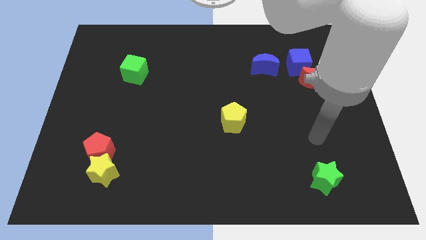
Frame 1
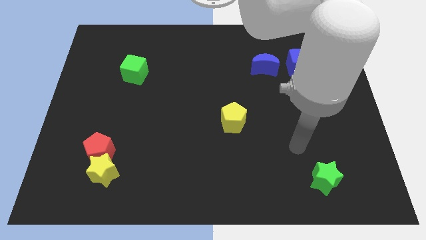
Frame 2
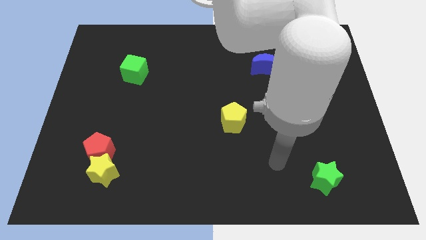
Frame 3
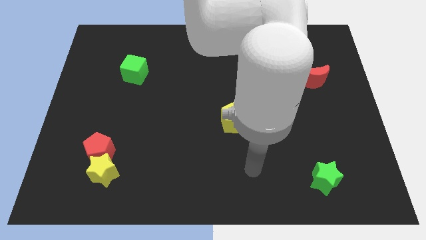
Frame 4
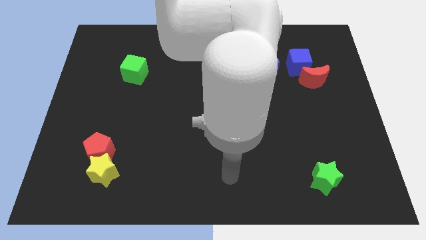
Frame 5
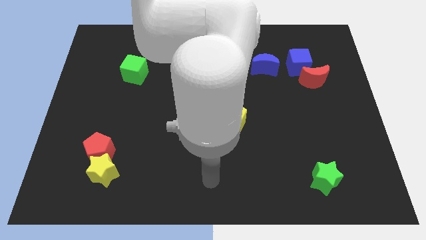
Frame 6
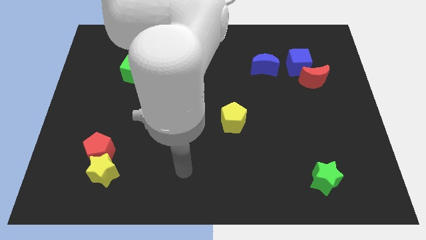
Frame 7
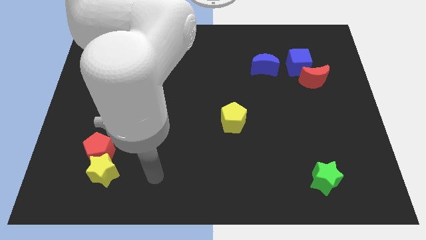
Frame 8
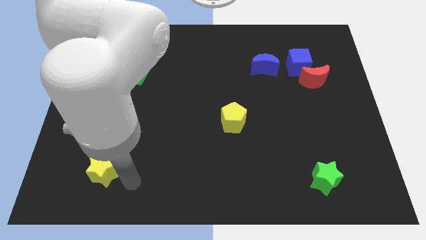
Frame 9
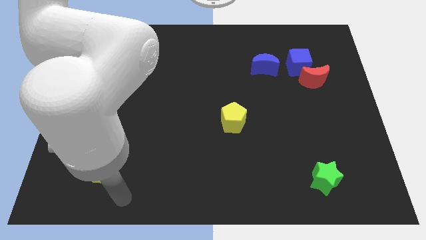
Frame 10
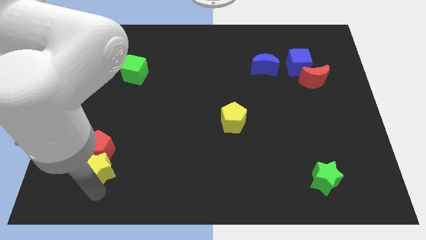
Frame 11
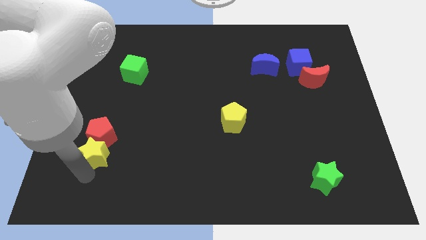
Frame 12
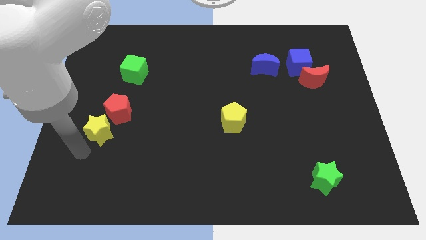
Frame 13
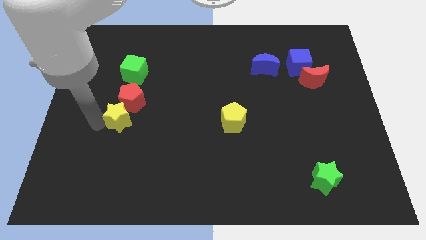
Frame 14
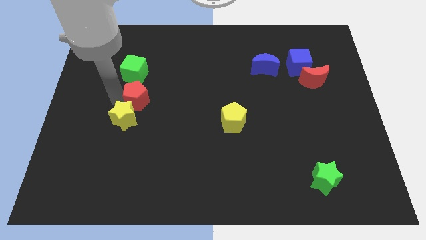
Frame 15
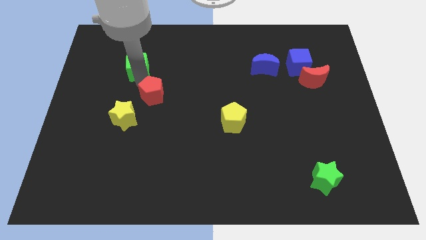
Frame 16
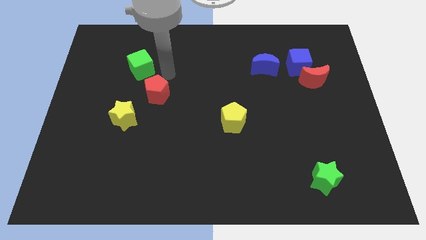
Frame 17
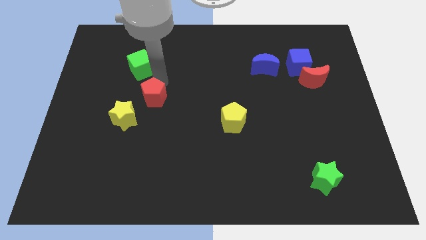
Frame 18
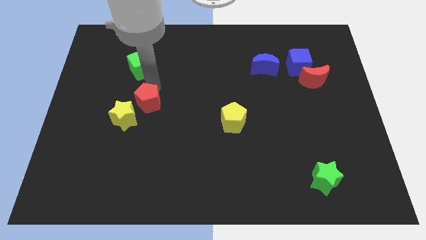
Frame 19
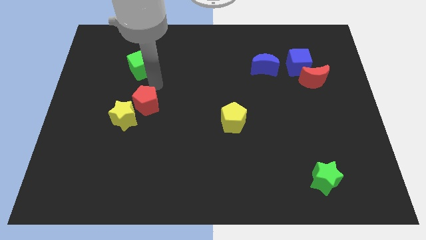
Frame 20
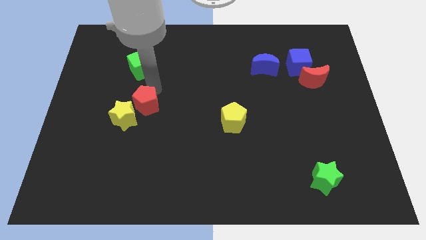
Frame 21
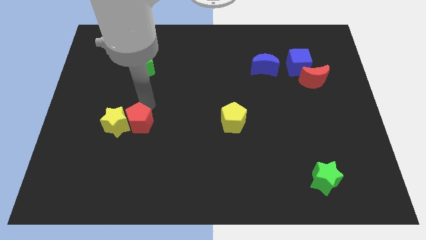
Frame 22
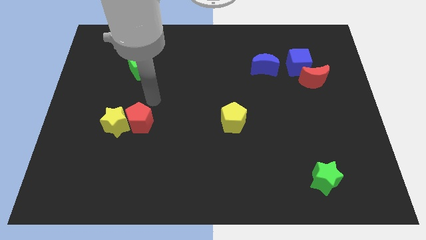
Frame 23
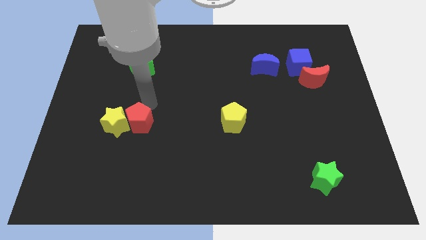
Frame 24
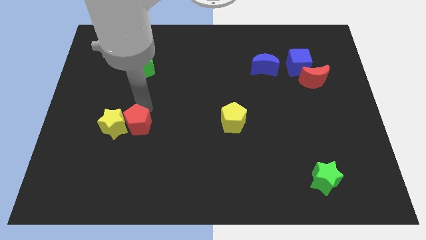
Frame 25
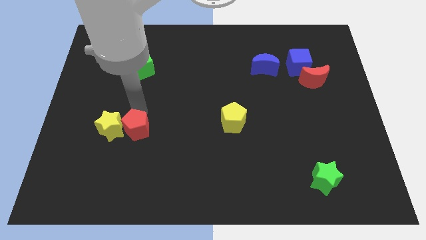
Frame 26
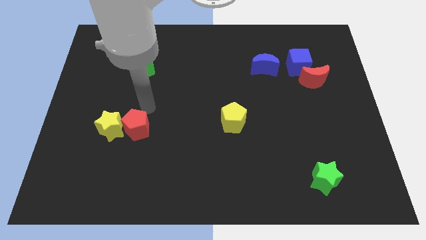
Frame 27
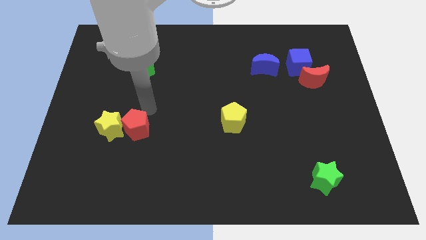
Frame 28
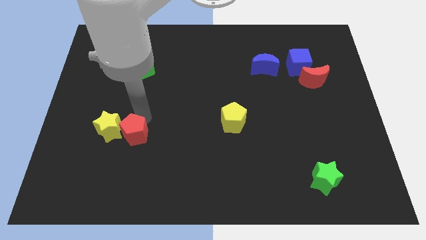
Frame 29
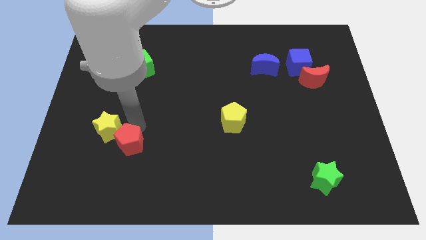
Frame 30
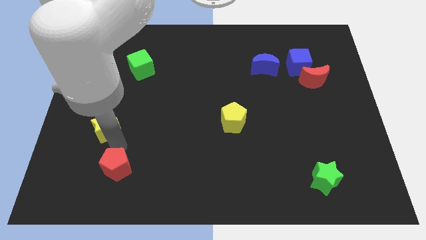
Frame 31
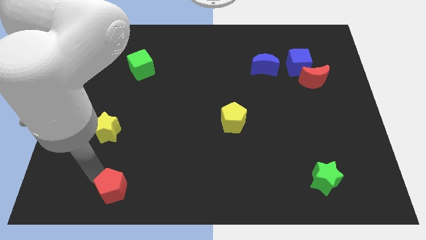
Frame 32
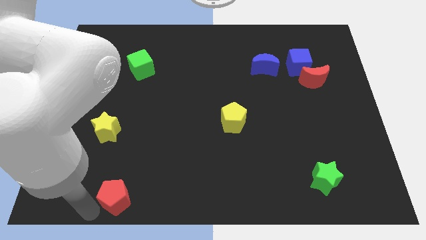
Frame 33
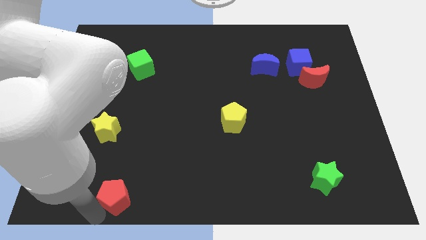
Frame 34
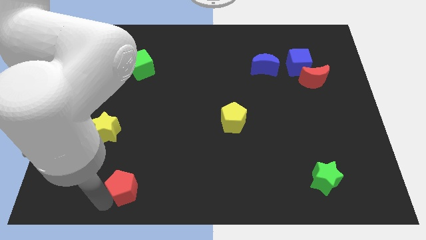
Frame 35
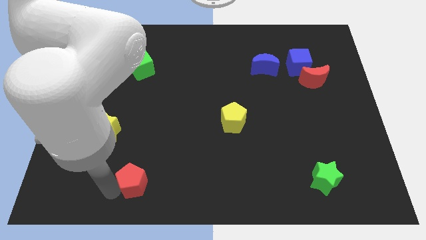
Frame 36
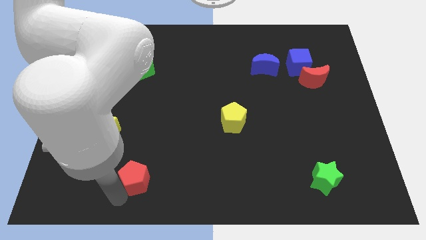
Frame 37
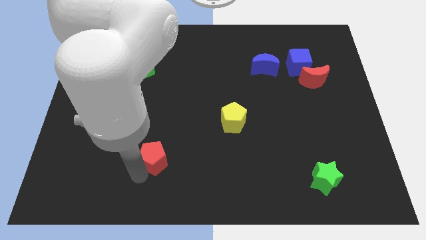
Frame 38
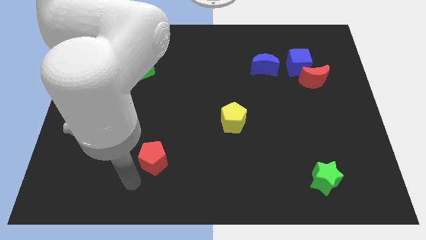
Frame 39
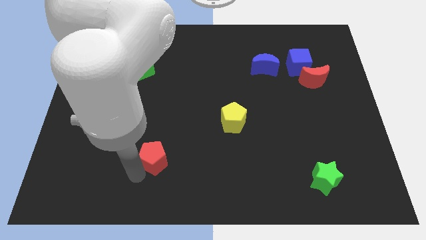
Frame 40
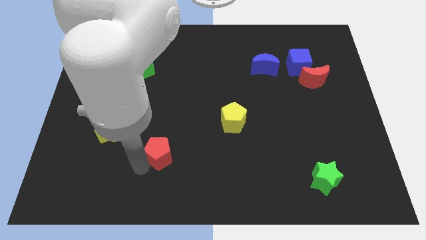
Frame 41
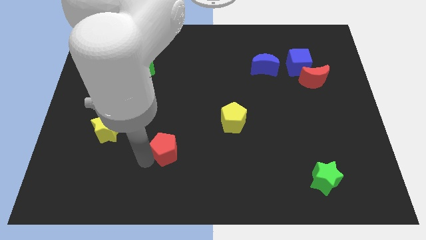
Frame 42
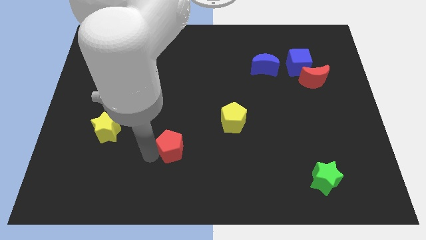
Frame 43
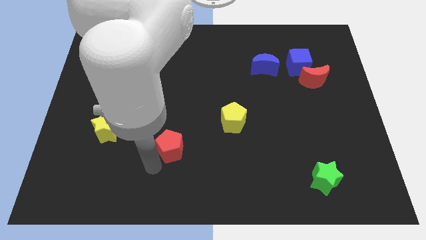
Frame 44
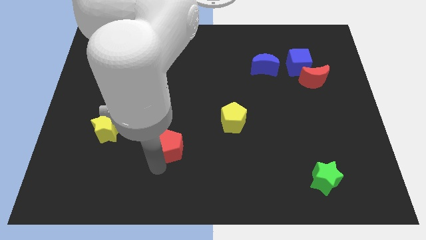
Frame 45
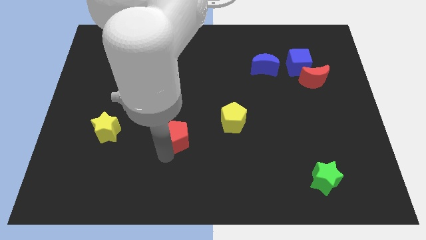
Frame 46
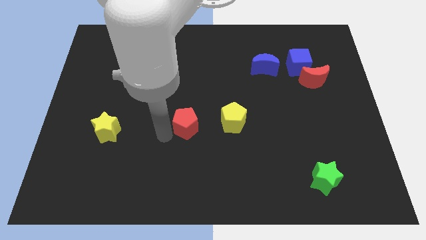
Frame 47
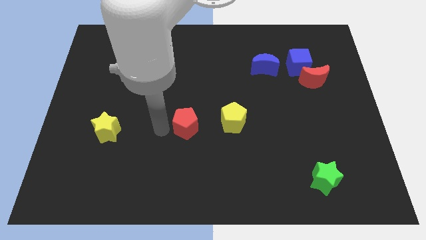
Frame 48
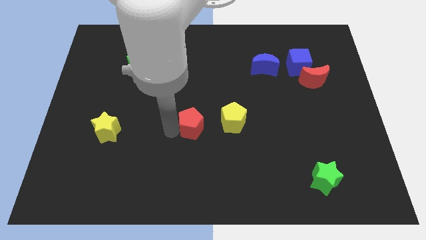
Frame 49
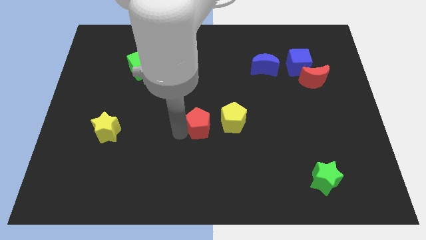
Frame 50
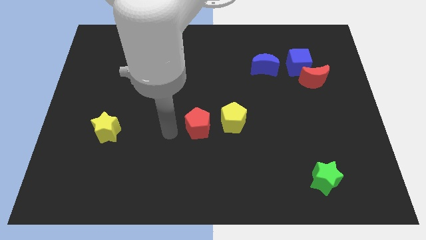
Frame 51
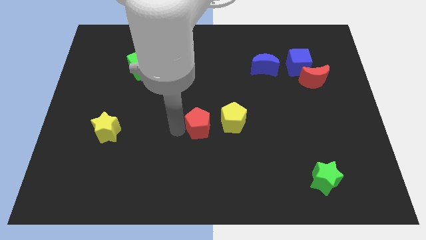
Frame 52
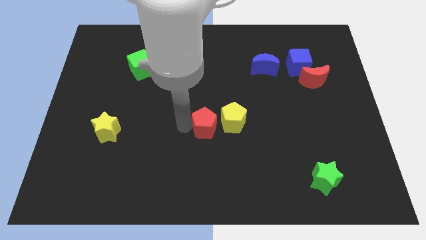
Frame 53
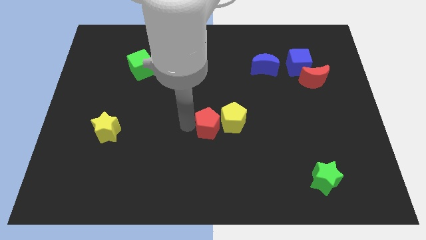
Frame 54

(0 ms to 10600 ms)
slide the red pentagon towards the yellow pentagon

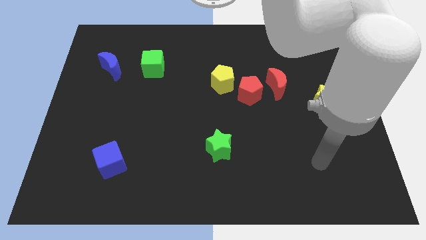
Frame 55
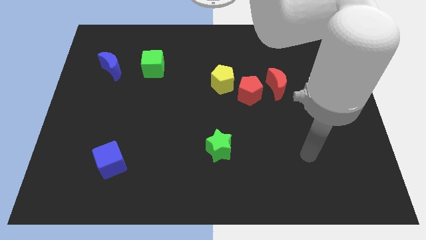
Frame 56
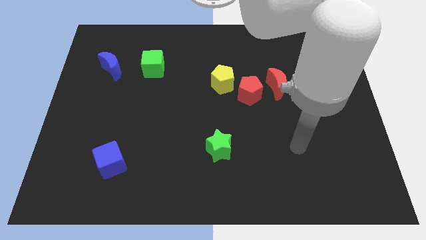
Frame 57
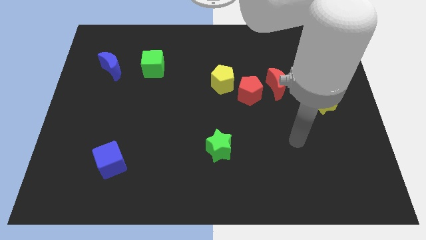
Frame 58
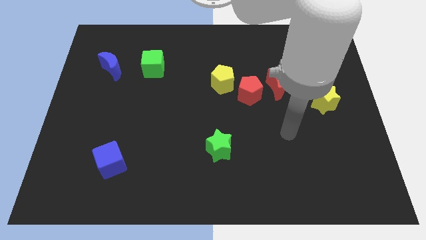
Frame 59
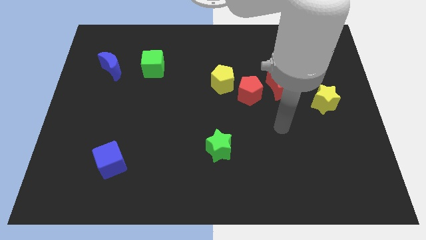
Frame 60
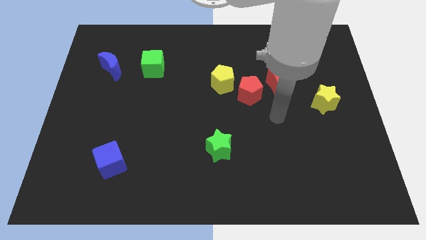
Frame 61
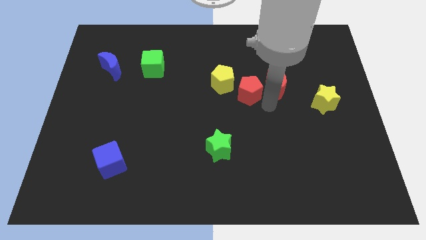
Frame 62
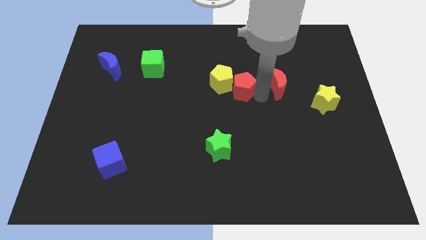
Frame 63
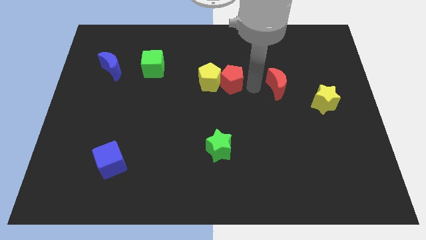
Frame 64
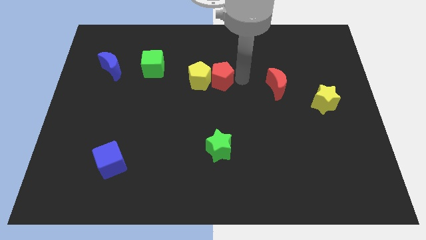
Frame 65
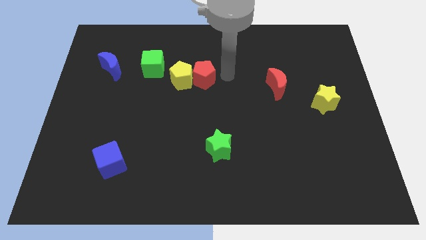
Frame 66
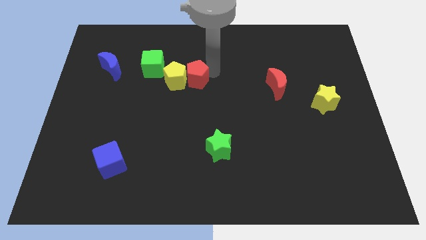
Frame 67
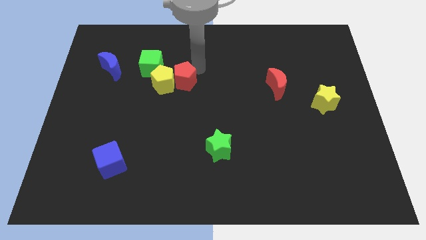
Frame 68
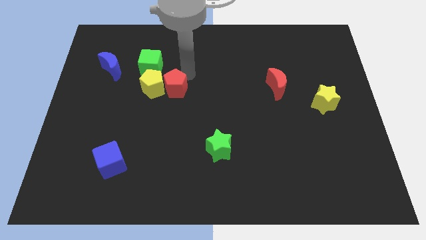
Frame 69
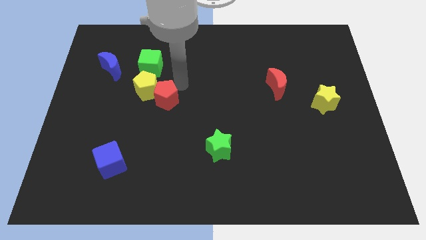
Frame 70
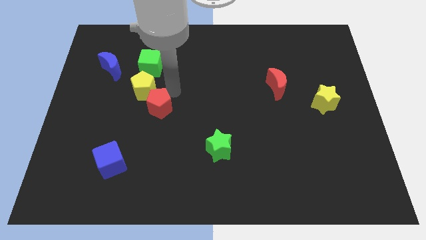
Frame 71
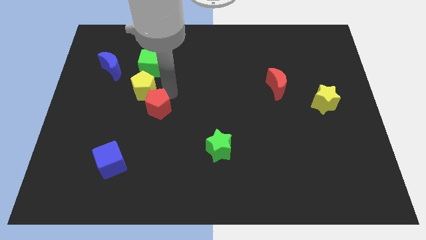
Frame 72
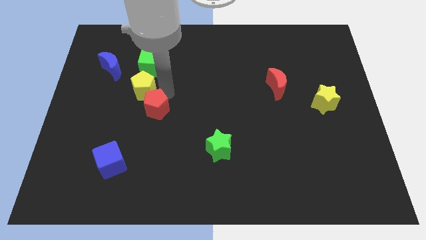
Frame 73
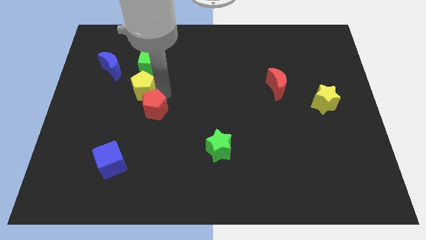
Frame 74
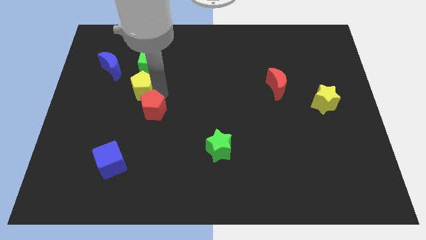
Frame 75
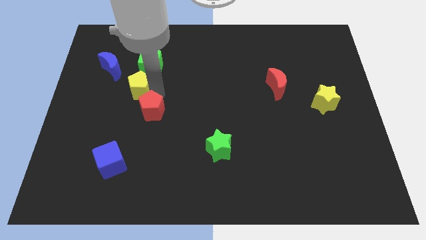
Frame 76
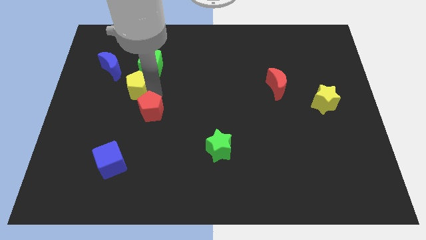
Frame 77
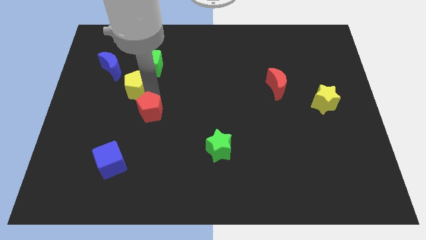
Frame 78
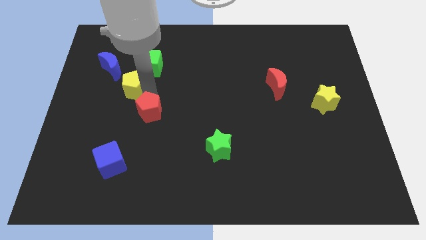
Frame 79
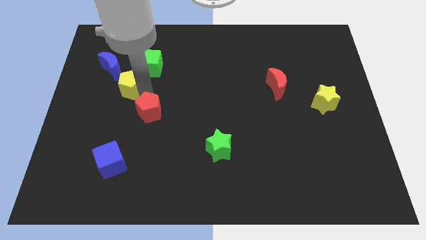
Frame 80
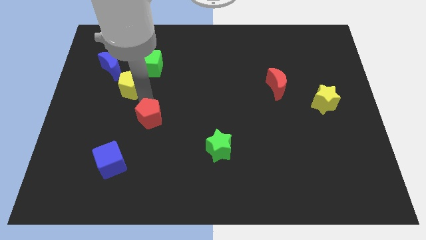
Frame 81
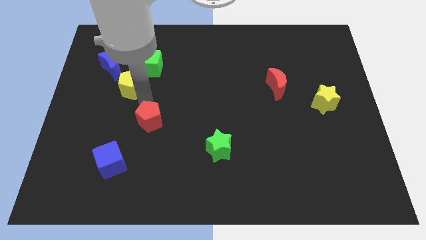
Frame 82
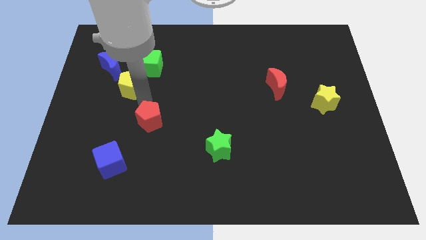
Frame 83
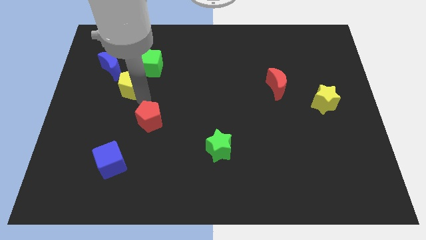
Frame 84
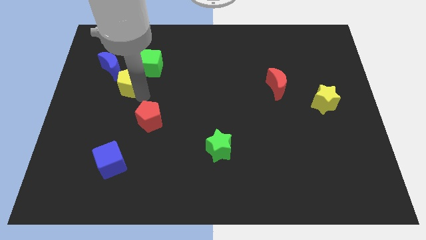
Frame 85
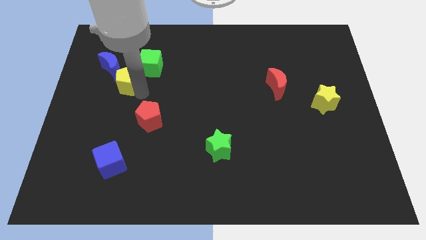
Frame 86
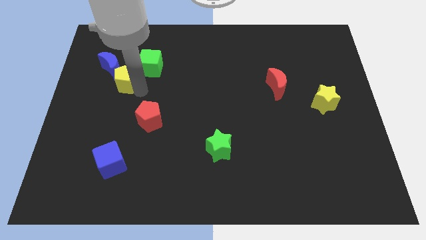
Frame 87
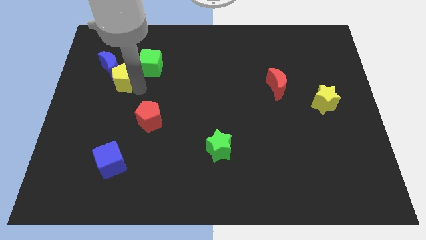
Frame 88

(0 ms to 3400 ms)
put the yellow pentagon close to the blue moon
